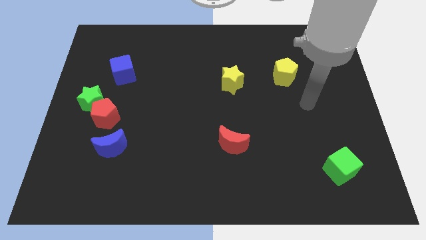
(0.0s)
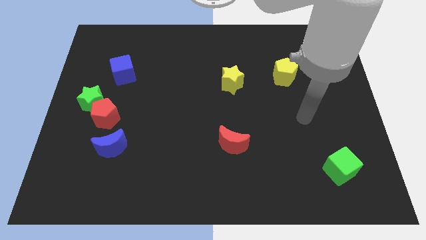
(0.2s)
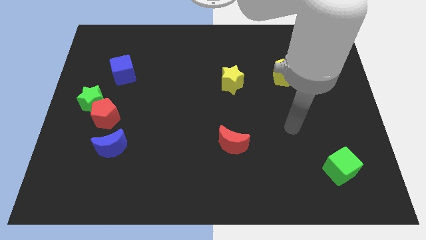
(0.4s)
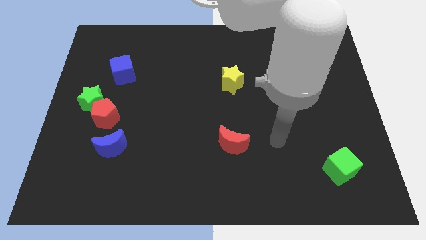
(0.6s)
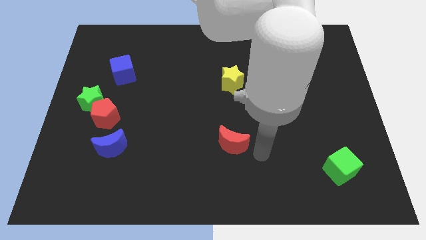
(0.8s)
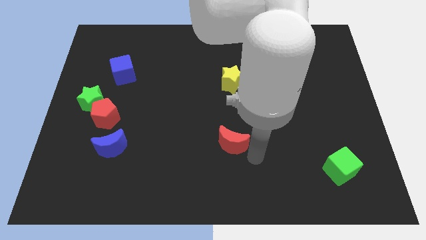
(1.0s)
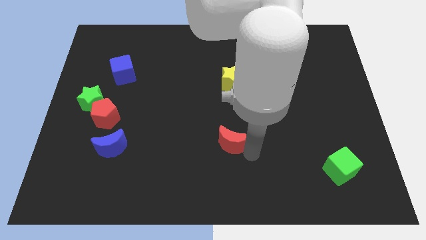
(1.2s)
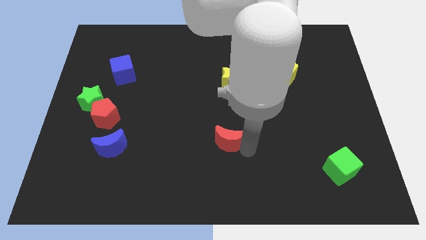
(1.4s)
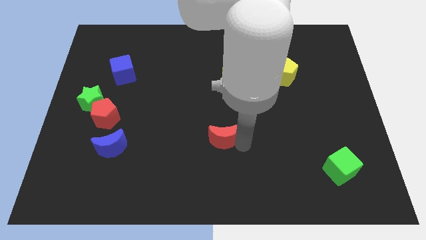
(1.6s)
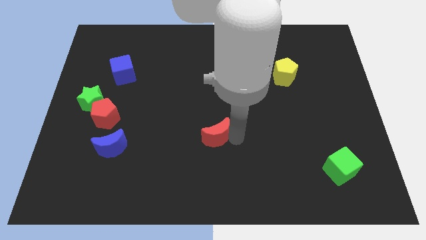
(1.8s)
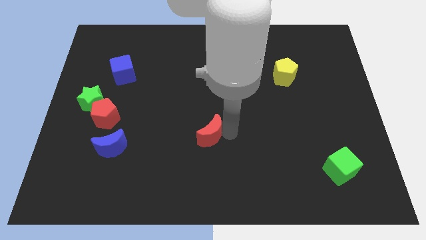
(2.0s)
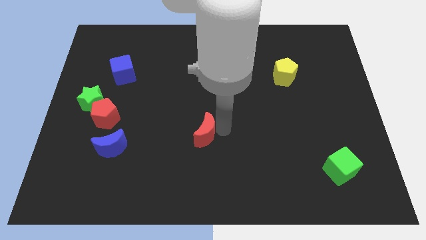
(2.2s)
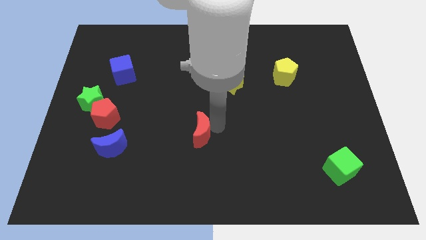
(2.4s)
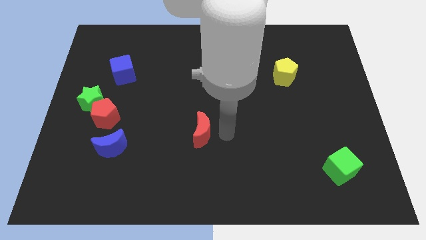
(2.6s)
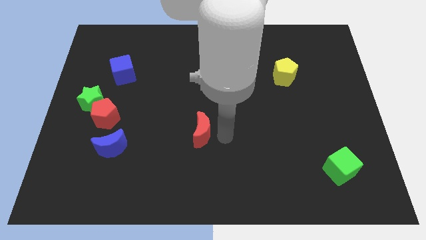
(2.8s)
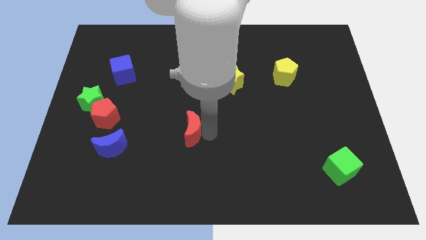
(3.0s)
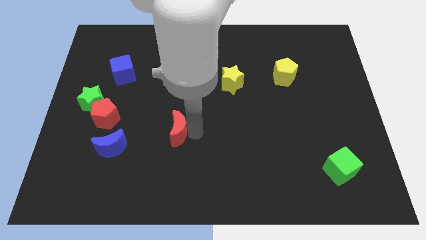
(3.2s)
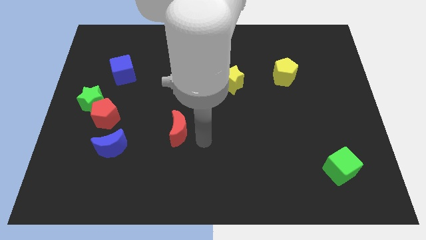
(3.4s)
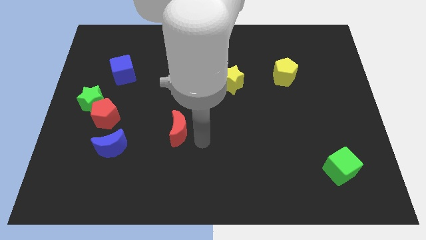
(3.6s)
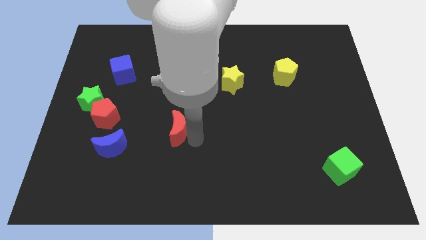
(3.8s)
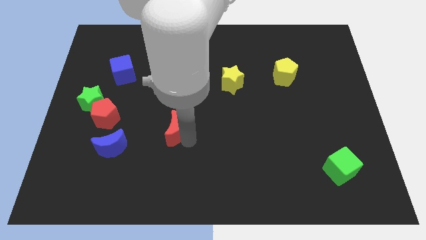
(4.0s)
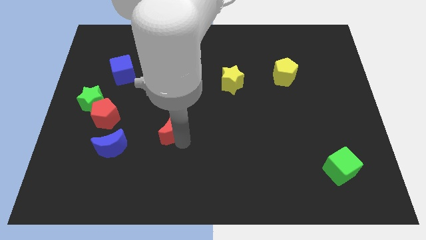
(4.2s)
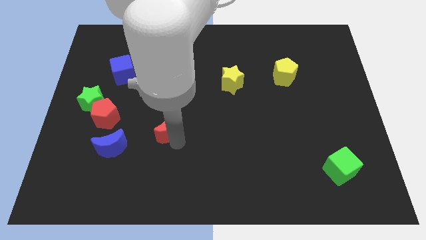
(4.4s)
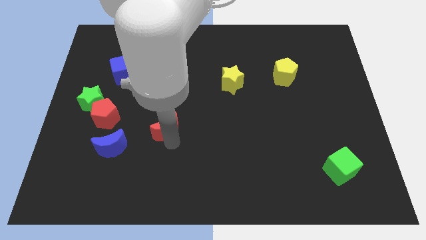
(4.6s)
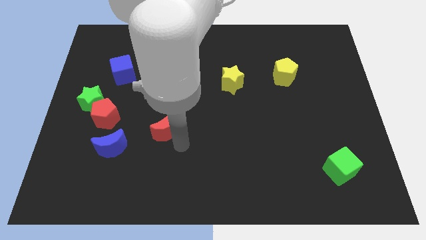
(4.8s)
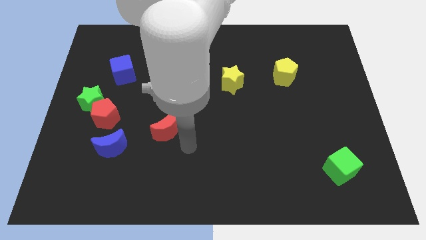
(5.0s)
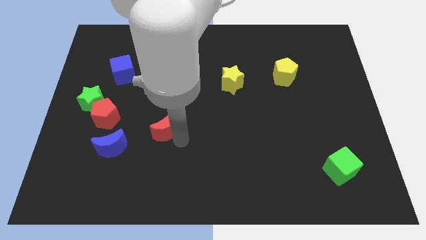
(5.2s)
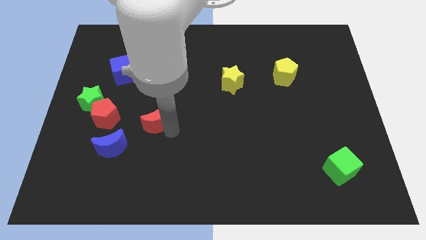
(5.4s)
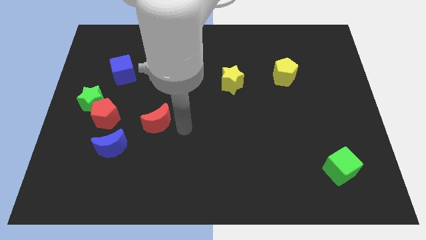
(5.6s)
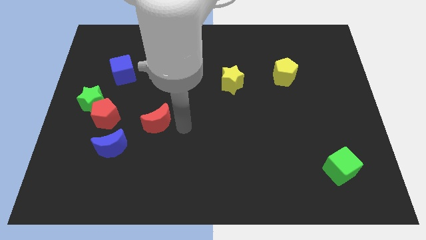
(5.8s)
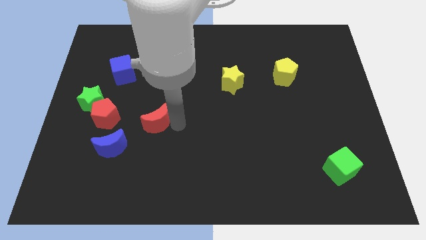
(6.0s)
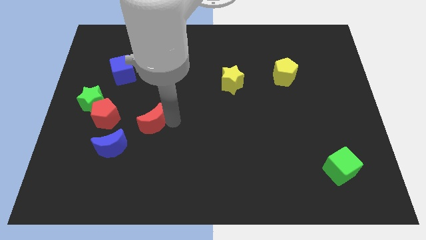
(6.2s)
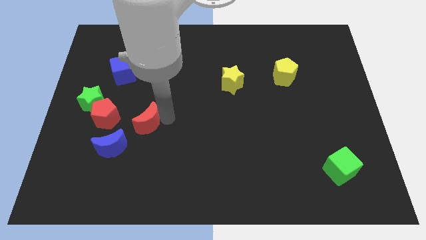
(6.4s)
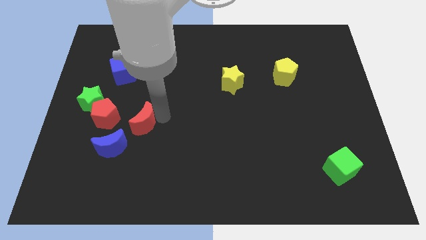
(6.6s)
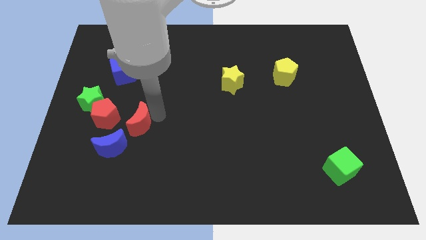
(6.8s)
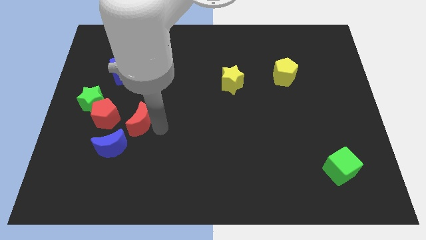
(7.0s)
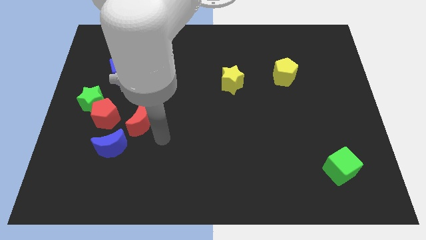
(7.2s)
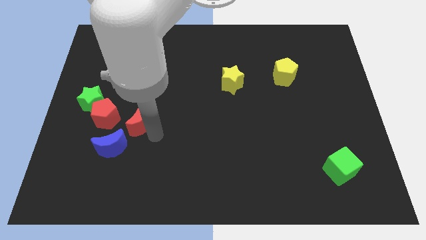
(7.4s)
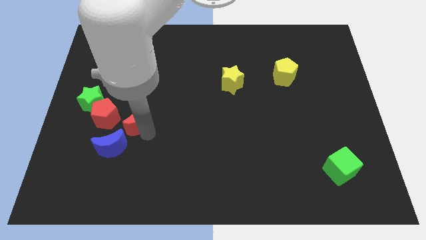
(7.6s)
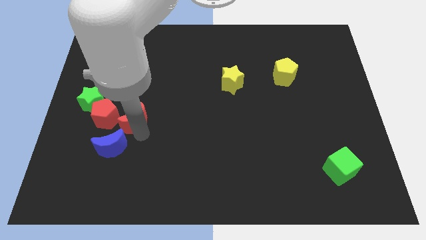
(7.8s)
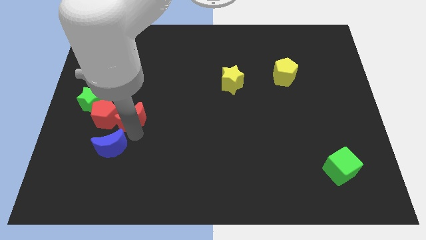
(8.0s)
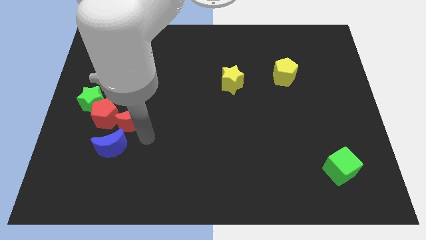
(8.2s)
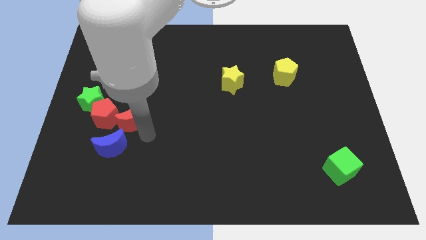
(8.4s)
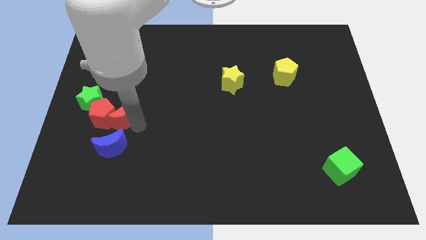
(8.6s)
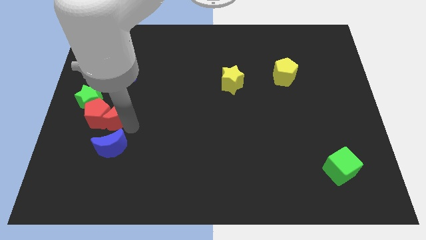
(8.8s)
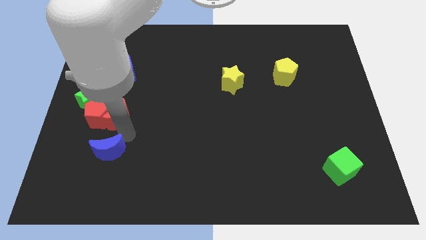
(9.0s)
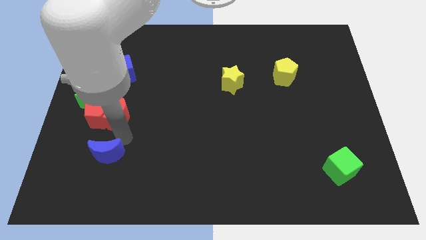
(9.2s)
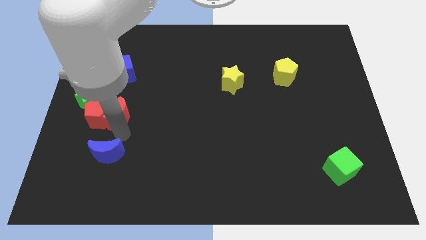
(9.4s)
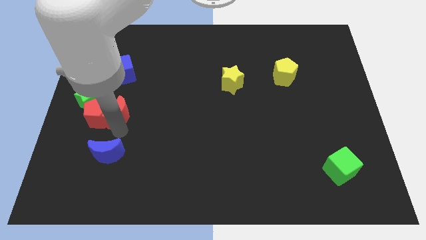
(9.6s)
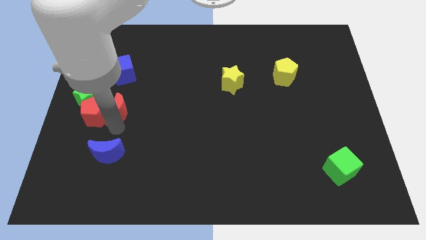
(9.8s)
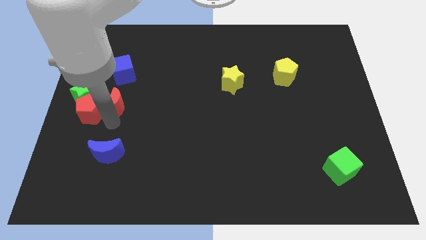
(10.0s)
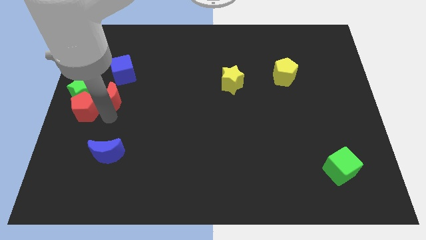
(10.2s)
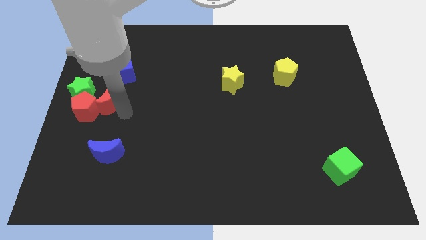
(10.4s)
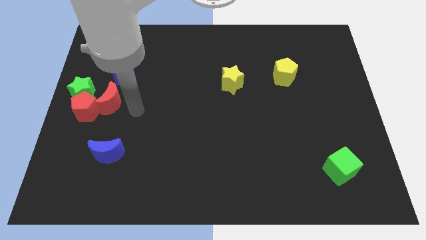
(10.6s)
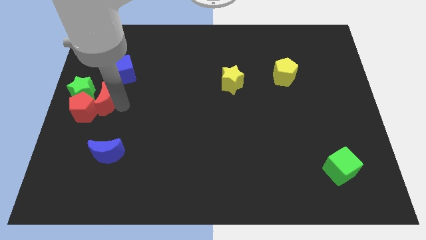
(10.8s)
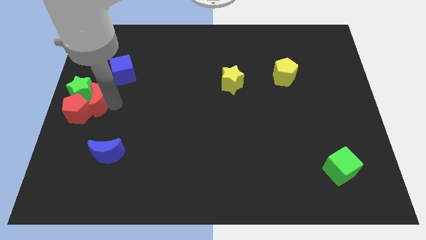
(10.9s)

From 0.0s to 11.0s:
push the red moon next to the green star
